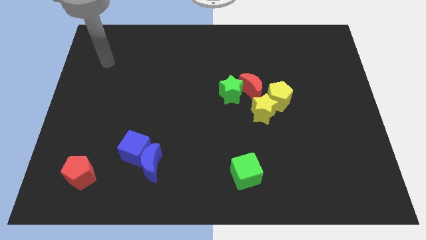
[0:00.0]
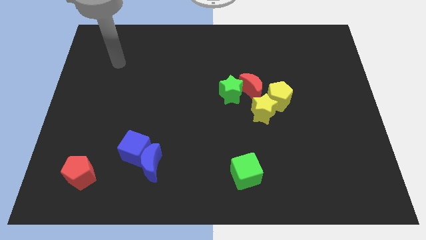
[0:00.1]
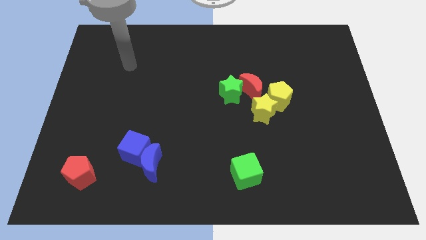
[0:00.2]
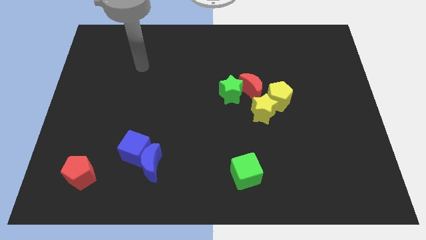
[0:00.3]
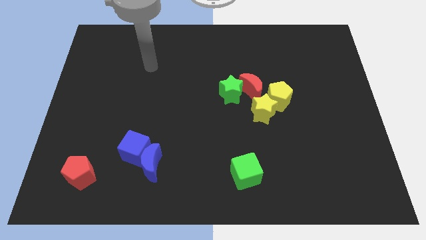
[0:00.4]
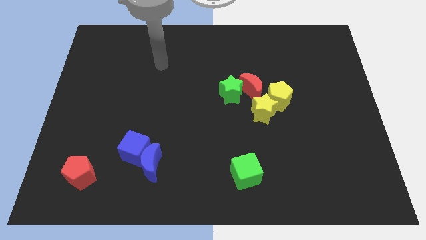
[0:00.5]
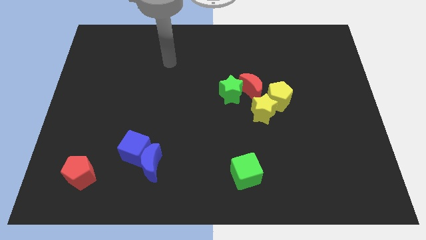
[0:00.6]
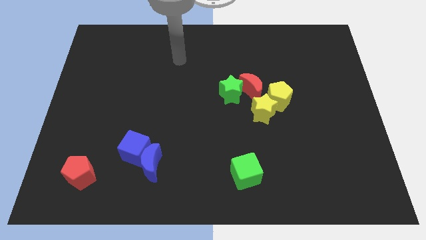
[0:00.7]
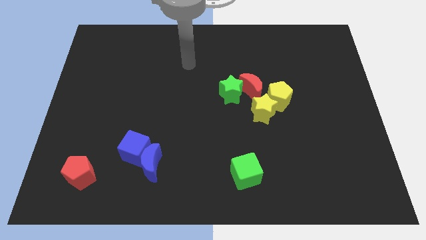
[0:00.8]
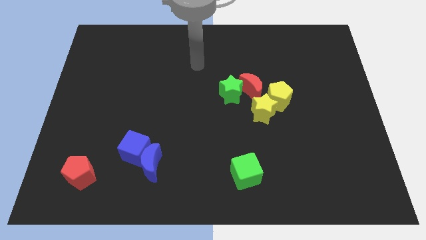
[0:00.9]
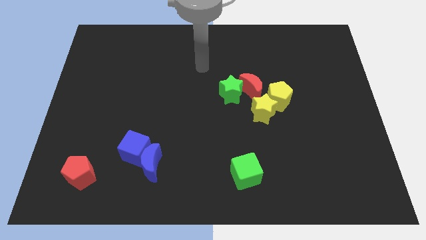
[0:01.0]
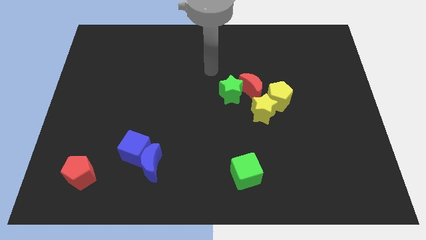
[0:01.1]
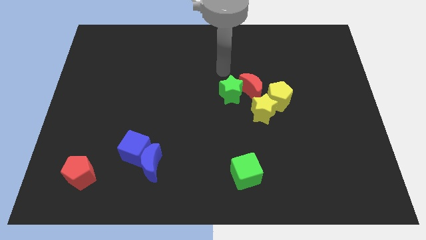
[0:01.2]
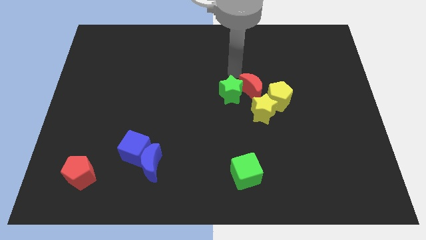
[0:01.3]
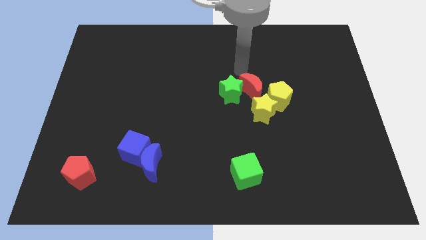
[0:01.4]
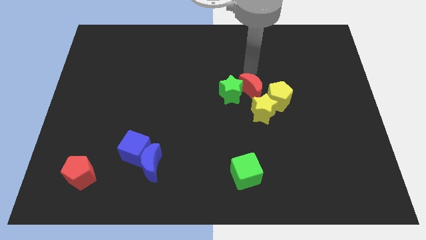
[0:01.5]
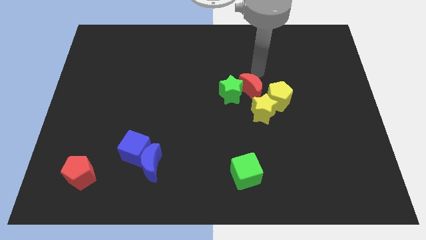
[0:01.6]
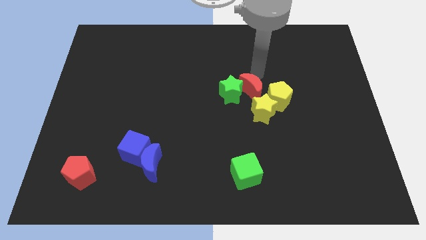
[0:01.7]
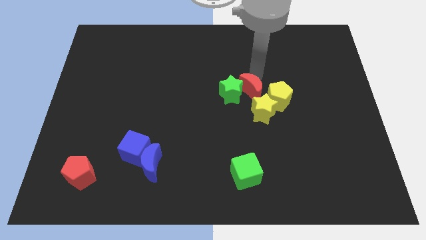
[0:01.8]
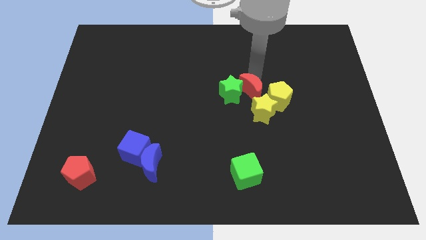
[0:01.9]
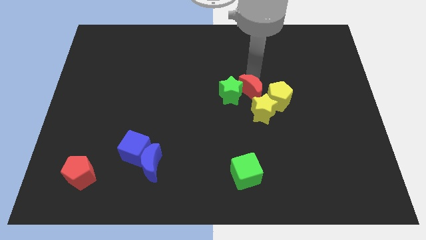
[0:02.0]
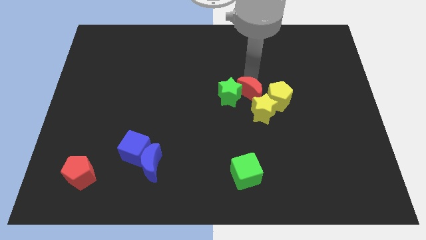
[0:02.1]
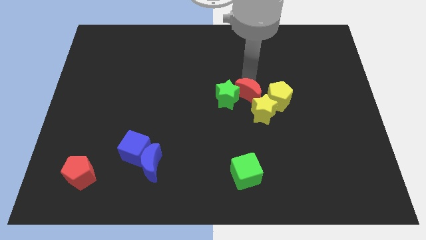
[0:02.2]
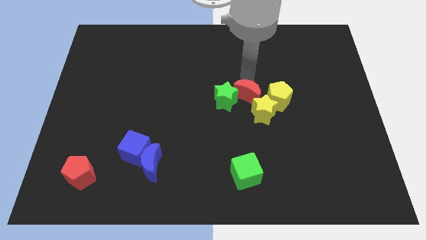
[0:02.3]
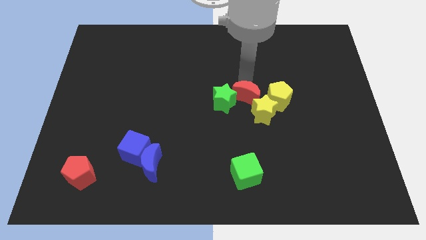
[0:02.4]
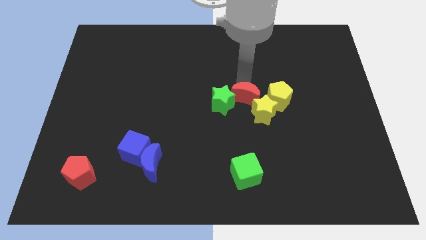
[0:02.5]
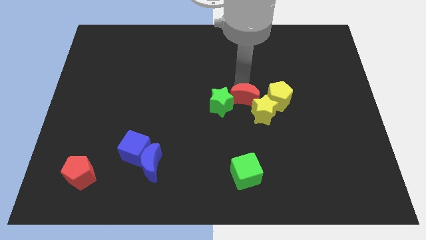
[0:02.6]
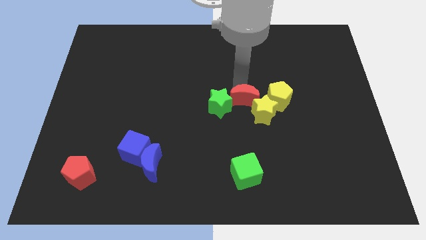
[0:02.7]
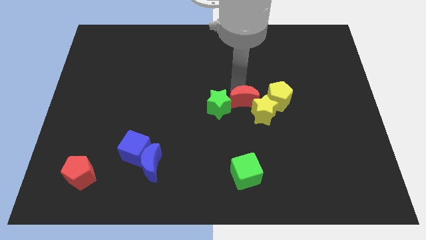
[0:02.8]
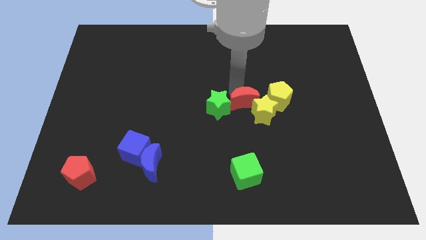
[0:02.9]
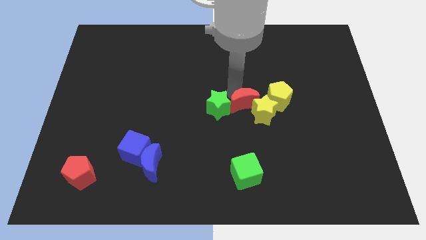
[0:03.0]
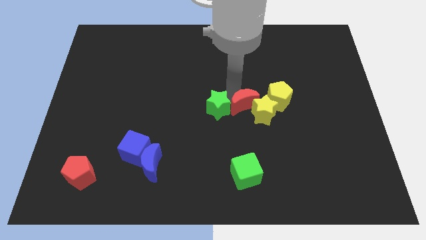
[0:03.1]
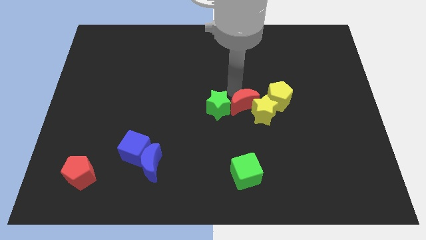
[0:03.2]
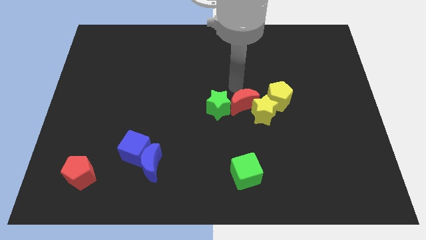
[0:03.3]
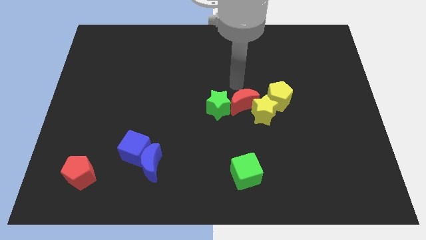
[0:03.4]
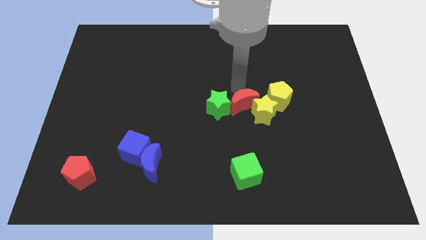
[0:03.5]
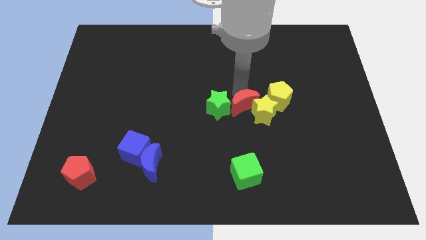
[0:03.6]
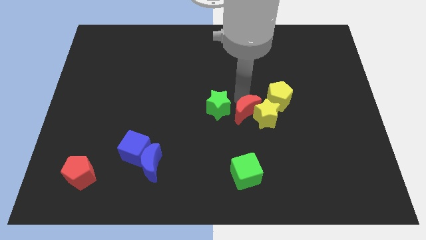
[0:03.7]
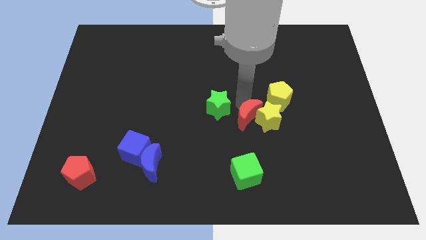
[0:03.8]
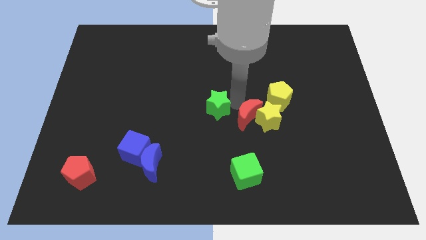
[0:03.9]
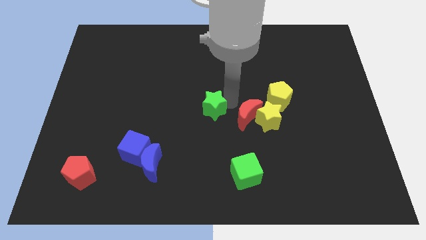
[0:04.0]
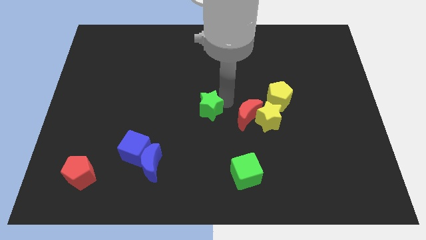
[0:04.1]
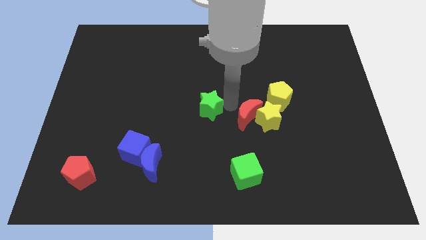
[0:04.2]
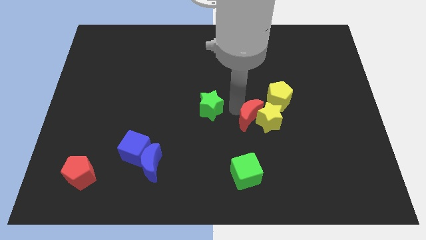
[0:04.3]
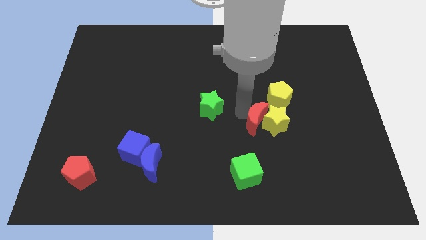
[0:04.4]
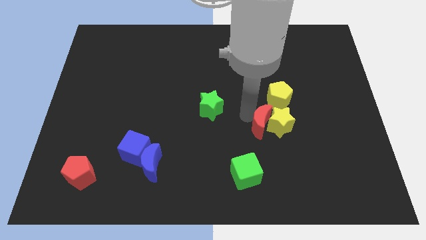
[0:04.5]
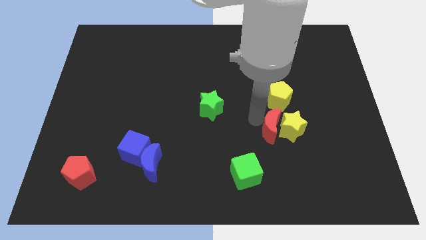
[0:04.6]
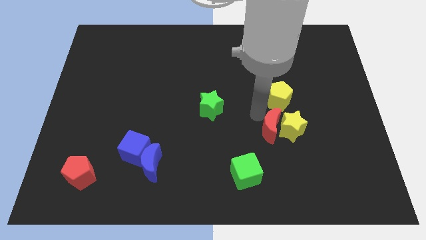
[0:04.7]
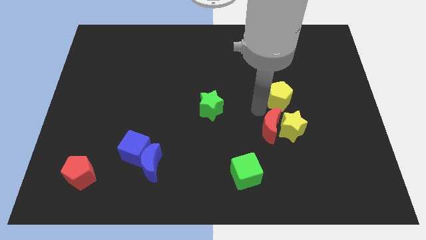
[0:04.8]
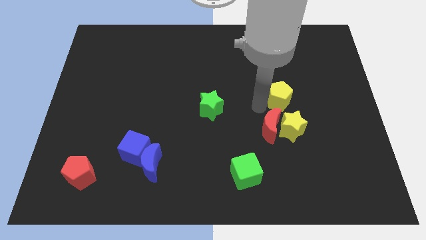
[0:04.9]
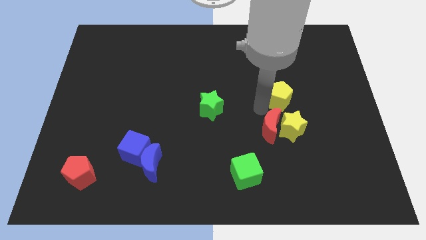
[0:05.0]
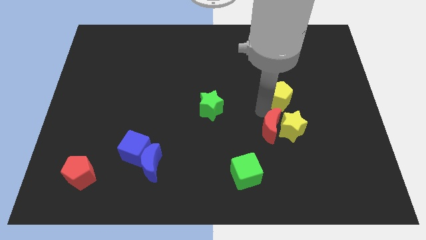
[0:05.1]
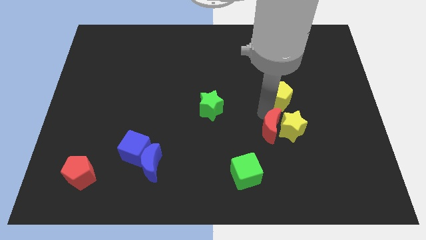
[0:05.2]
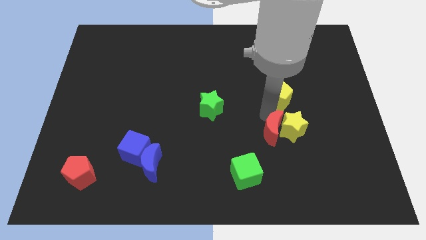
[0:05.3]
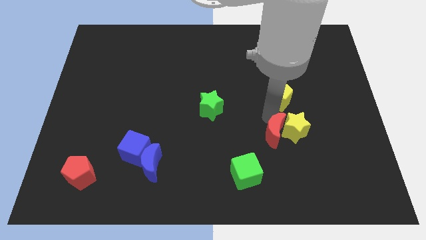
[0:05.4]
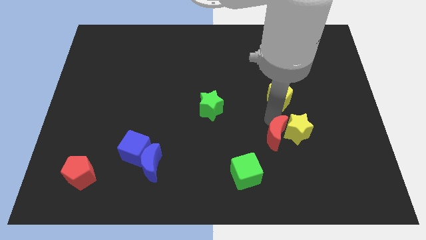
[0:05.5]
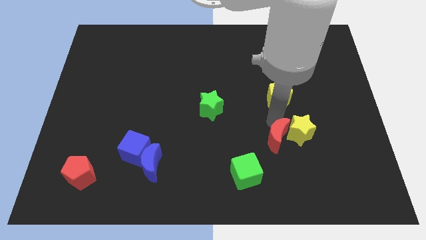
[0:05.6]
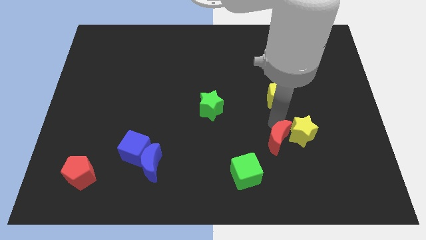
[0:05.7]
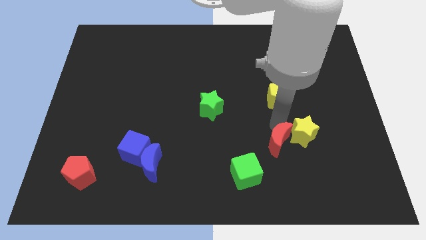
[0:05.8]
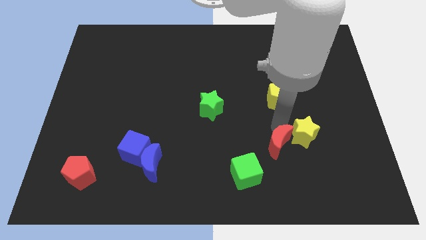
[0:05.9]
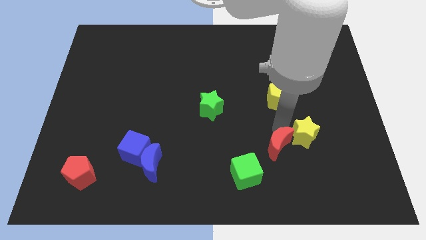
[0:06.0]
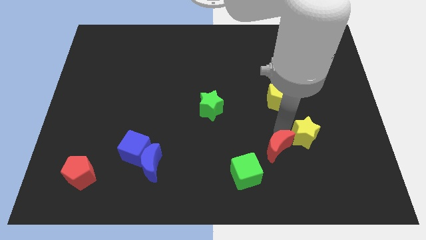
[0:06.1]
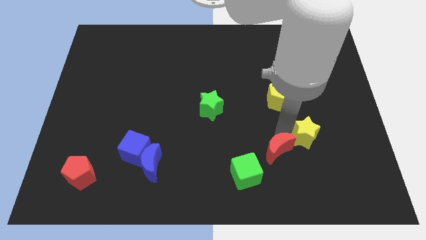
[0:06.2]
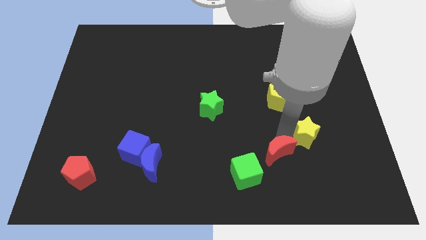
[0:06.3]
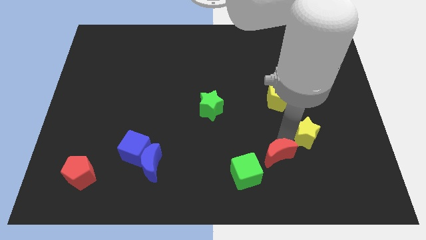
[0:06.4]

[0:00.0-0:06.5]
put the red moon to the right side of the green cube

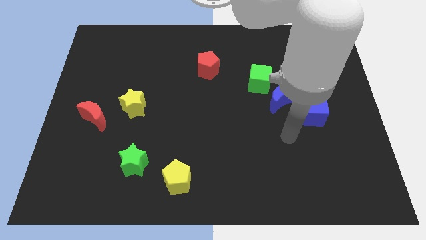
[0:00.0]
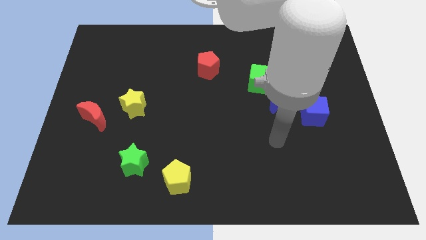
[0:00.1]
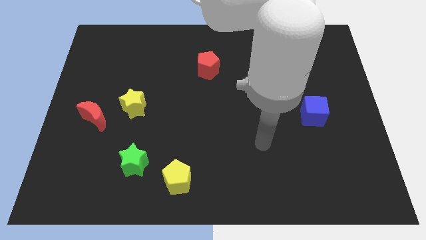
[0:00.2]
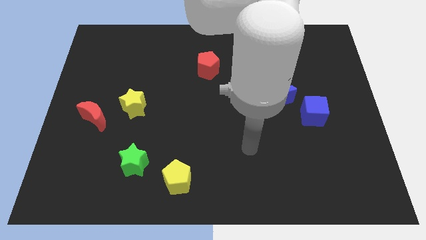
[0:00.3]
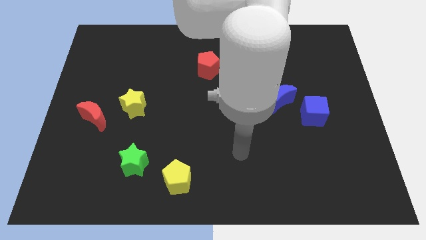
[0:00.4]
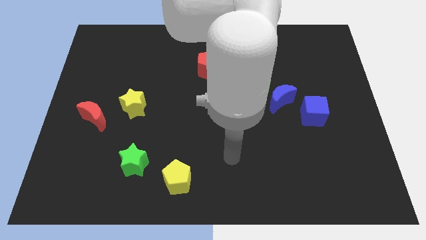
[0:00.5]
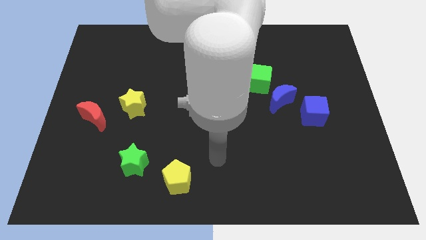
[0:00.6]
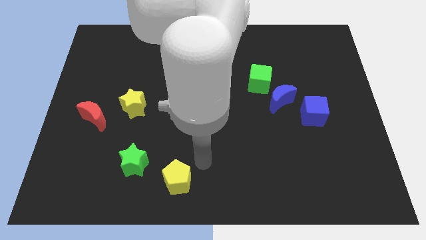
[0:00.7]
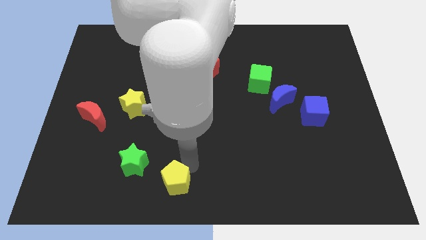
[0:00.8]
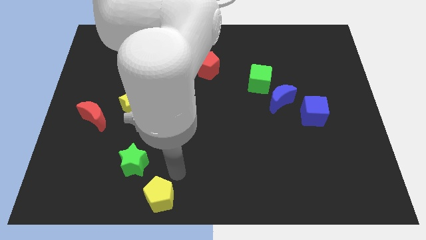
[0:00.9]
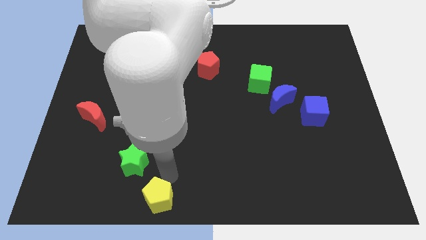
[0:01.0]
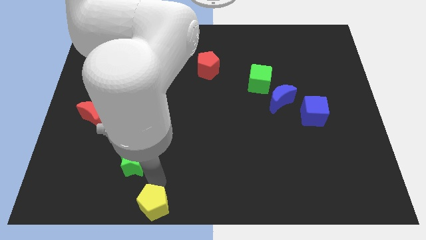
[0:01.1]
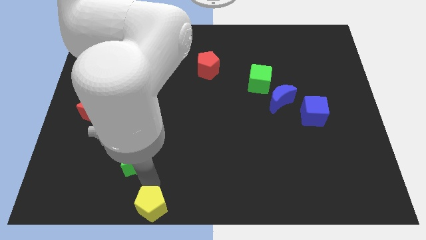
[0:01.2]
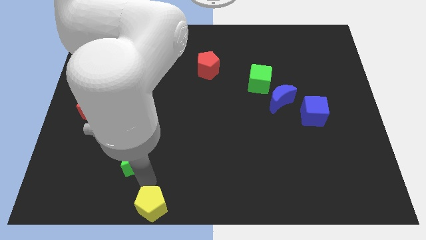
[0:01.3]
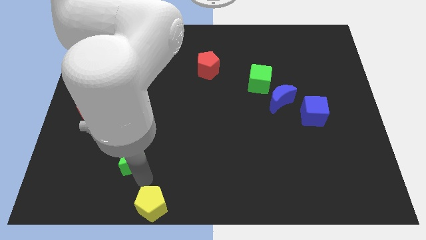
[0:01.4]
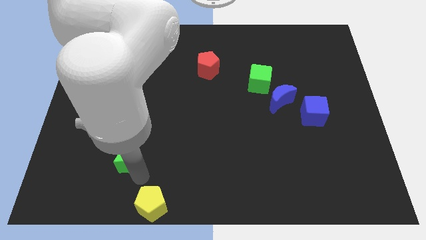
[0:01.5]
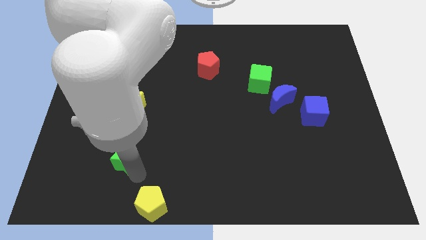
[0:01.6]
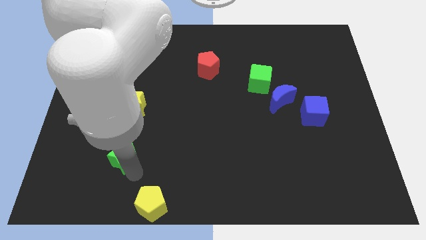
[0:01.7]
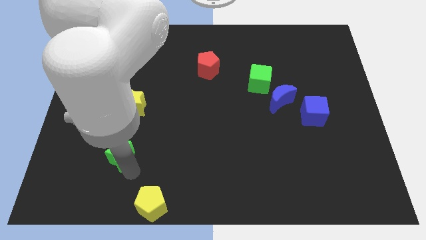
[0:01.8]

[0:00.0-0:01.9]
push the green star diagonally down and to the right of the red moon
